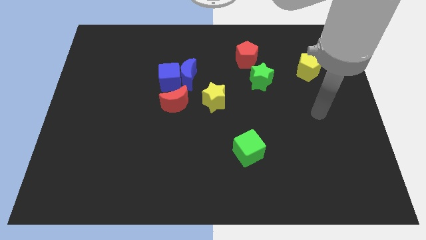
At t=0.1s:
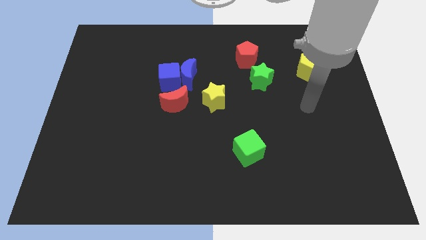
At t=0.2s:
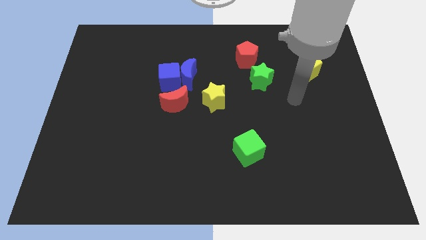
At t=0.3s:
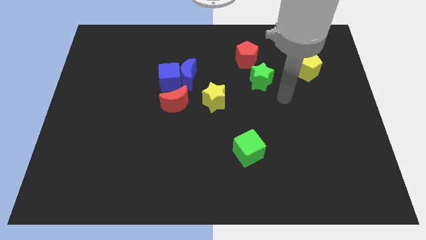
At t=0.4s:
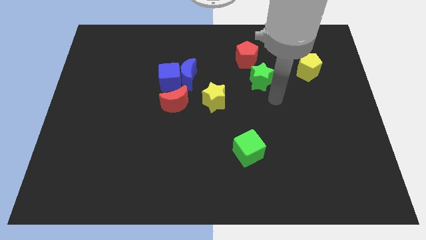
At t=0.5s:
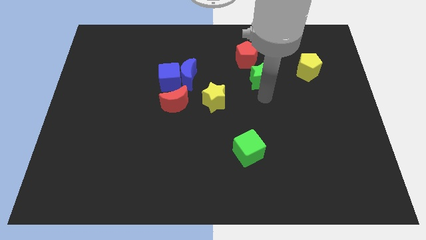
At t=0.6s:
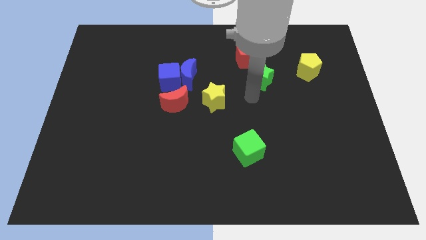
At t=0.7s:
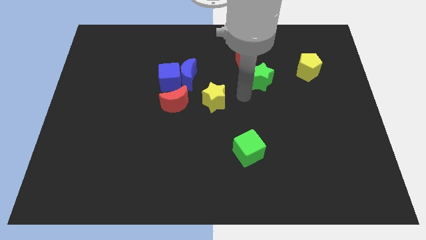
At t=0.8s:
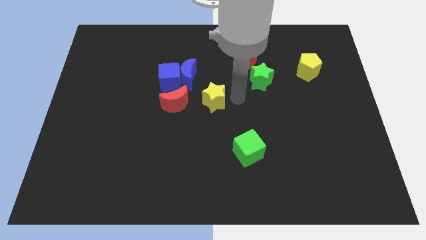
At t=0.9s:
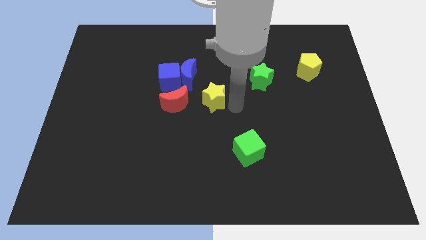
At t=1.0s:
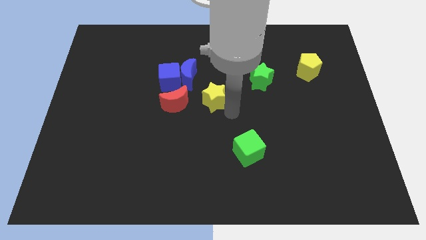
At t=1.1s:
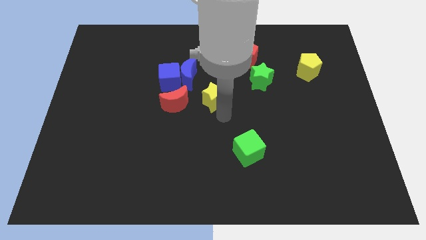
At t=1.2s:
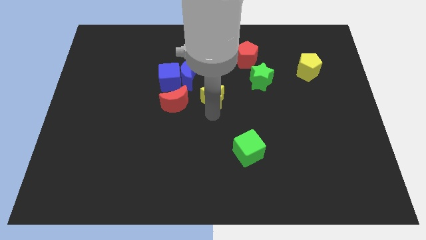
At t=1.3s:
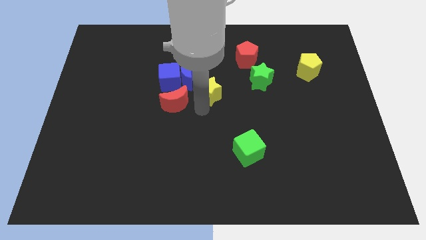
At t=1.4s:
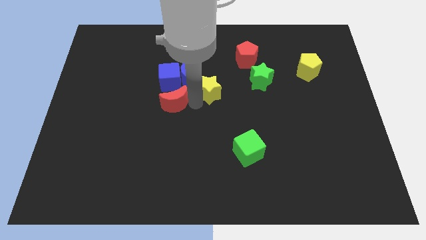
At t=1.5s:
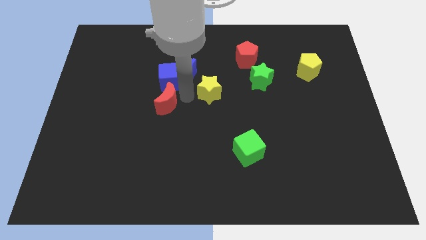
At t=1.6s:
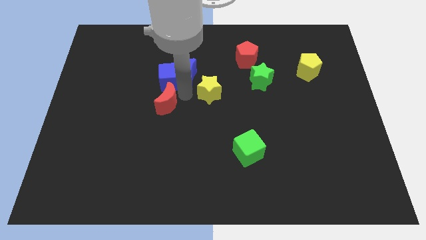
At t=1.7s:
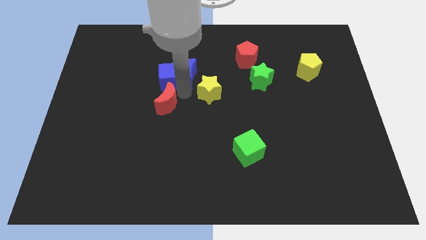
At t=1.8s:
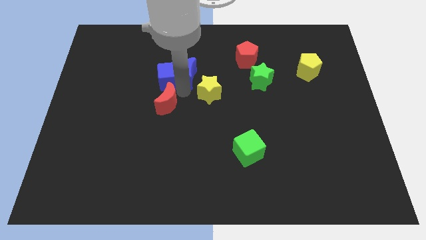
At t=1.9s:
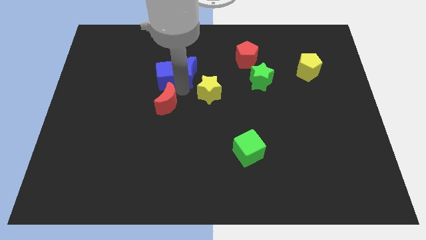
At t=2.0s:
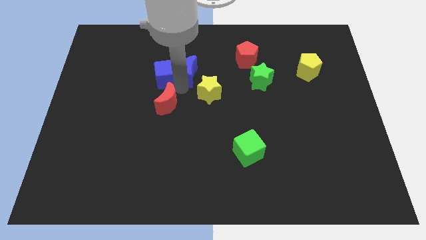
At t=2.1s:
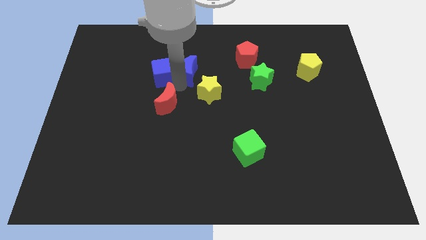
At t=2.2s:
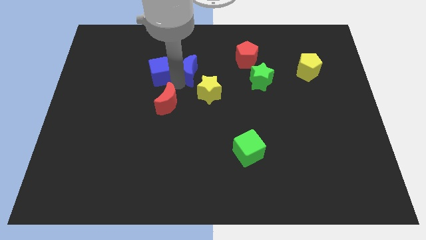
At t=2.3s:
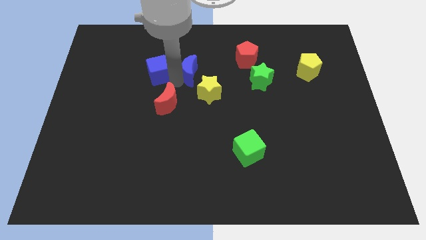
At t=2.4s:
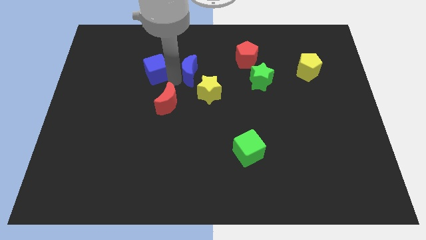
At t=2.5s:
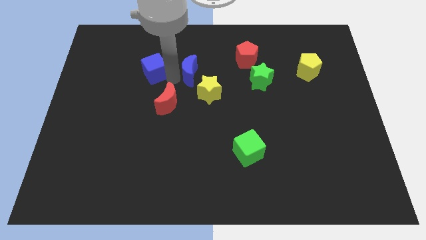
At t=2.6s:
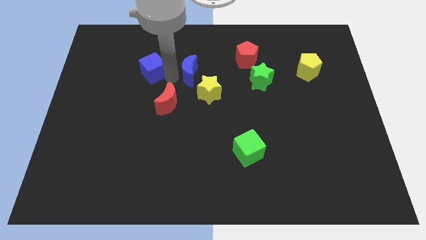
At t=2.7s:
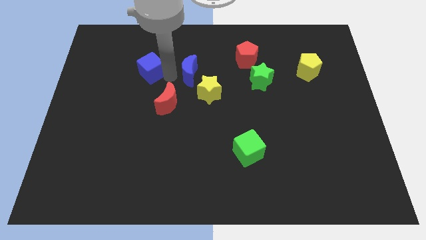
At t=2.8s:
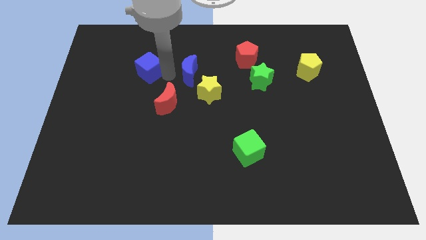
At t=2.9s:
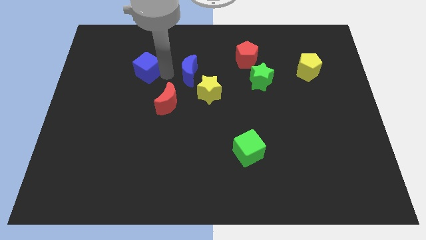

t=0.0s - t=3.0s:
pull the blue cube apart from the blue moon and red moon

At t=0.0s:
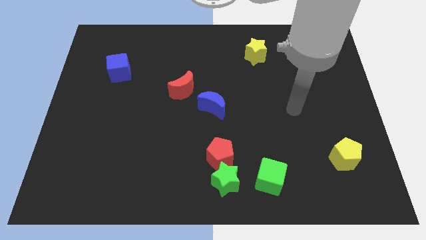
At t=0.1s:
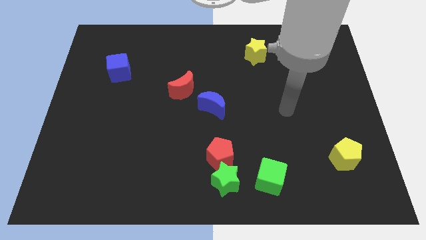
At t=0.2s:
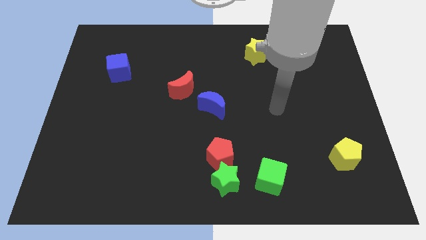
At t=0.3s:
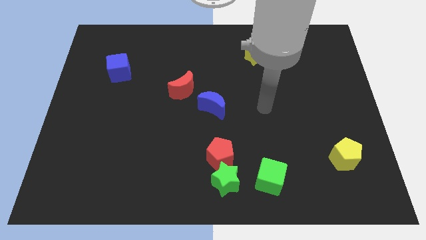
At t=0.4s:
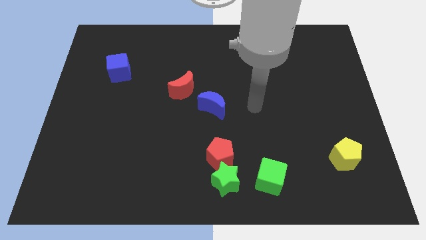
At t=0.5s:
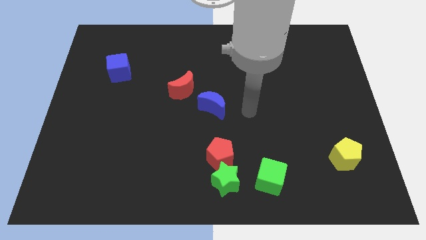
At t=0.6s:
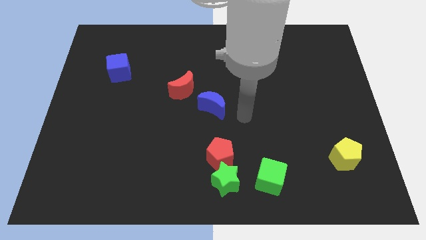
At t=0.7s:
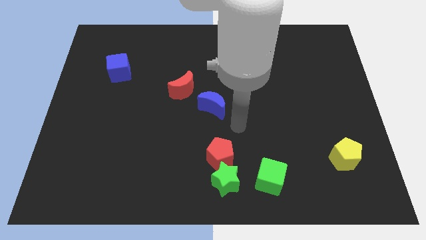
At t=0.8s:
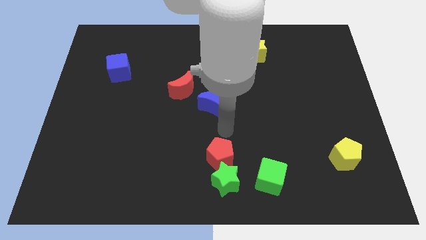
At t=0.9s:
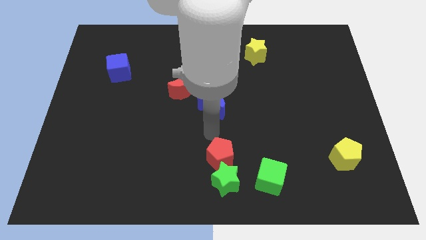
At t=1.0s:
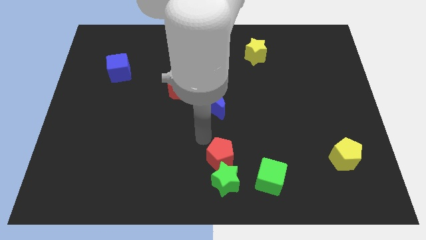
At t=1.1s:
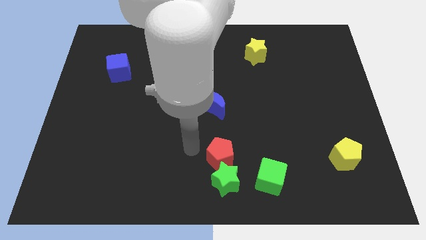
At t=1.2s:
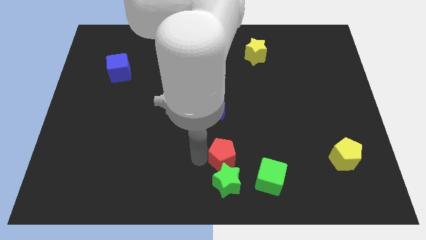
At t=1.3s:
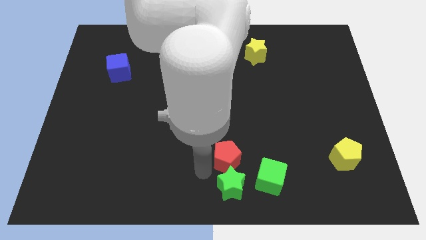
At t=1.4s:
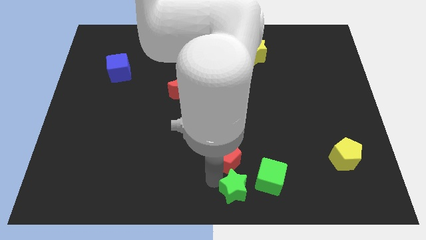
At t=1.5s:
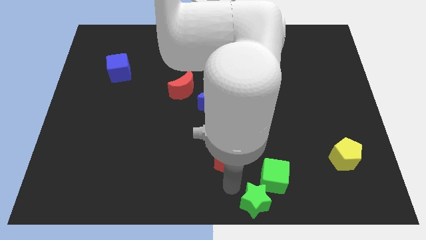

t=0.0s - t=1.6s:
pull the red pentagon apart from the green star

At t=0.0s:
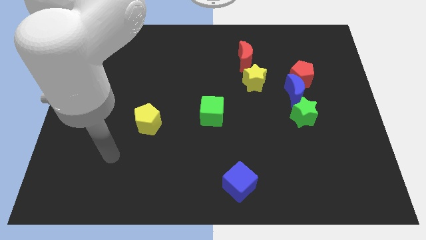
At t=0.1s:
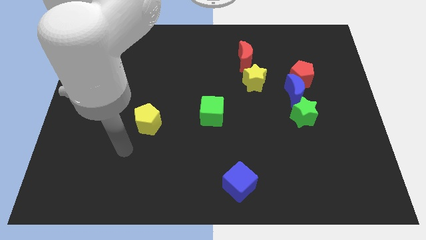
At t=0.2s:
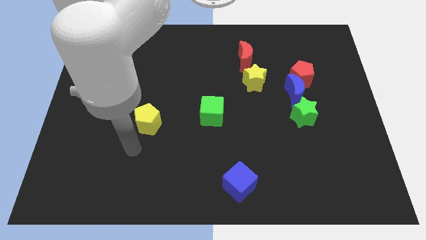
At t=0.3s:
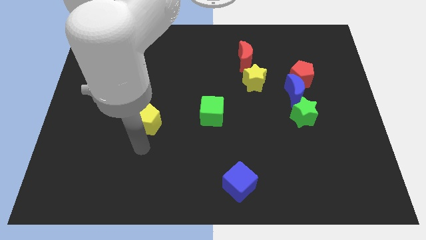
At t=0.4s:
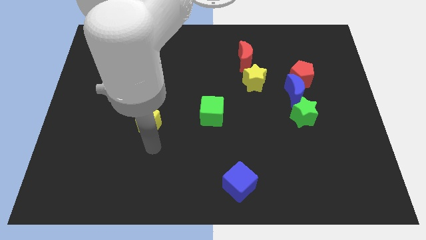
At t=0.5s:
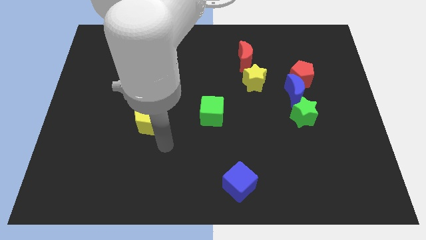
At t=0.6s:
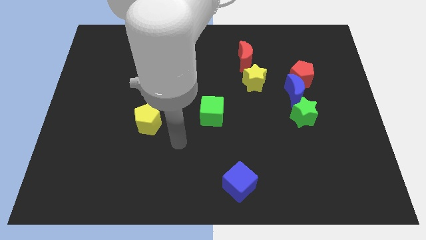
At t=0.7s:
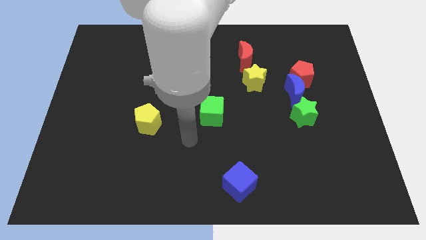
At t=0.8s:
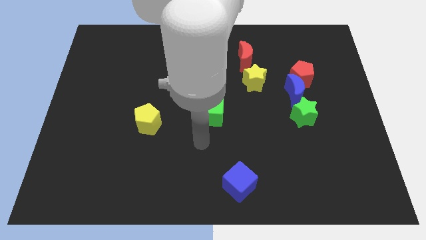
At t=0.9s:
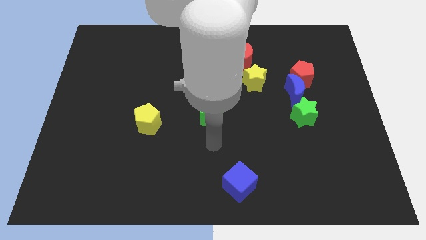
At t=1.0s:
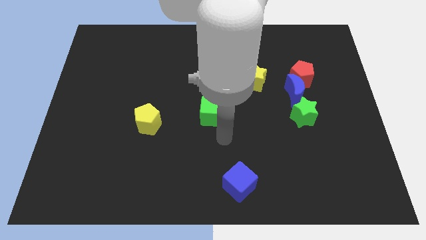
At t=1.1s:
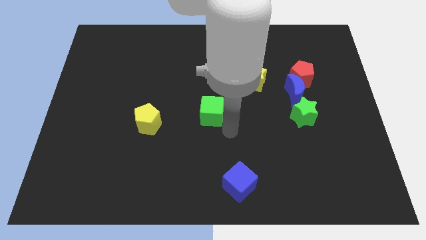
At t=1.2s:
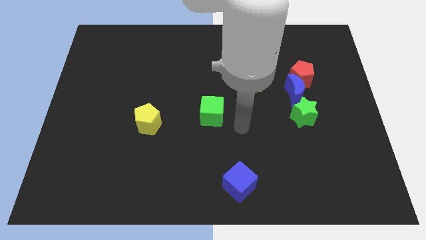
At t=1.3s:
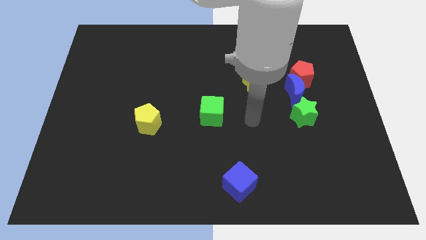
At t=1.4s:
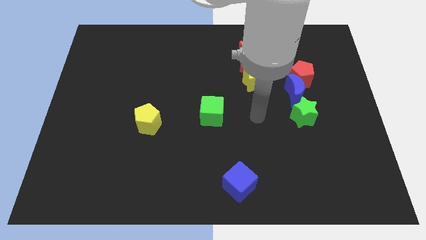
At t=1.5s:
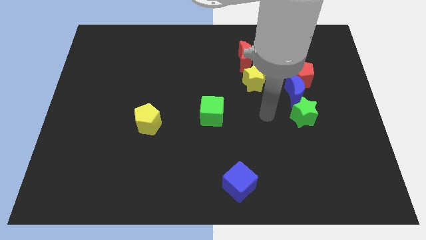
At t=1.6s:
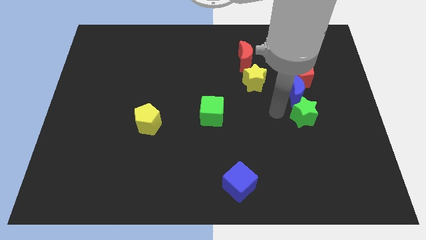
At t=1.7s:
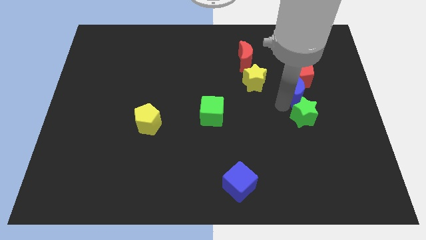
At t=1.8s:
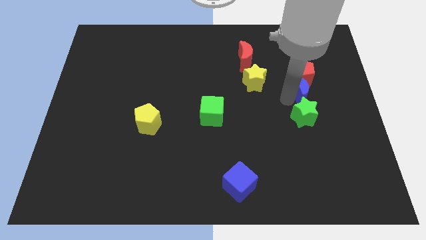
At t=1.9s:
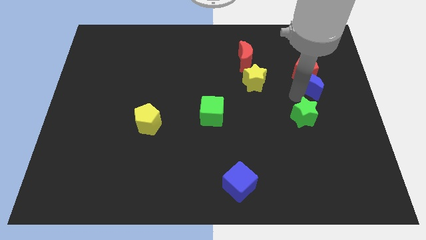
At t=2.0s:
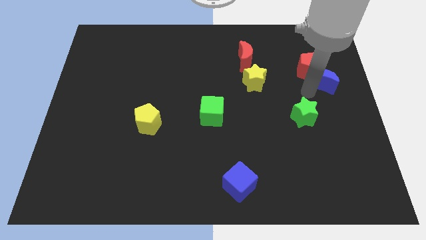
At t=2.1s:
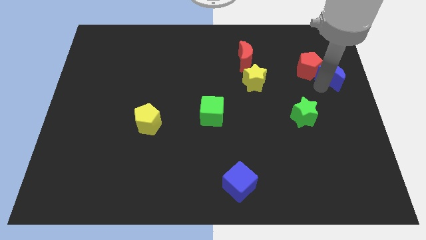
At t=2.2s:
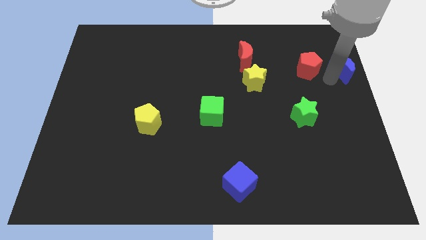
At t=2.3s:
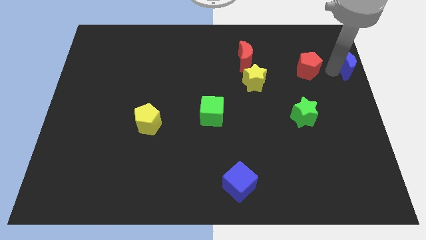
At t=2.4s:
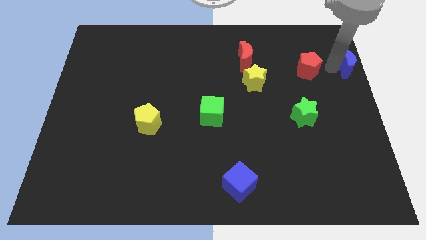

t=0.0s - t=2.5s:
move the red pentagon away from the blue moon

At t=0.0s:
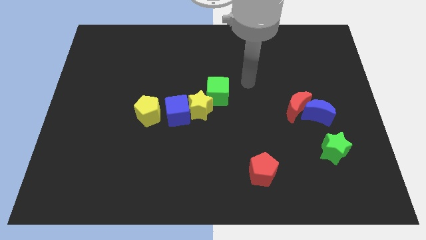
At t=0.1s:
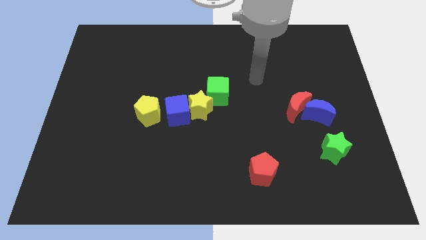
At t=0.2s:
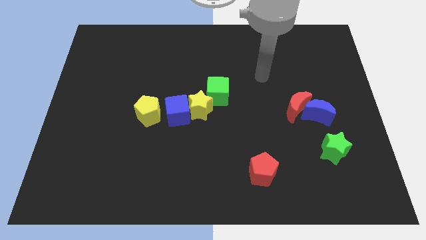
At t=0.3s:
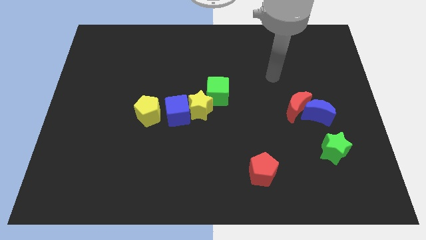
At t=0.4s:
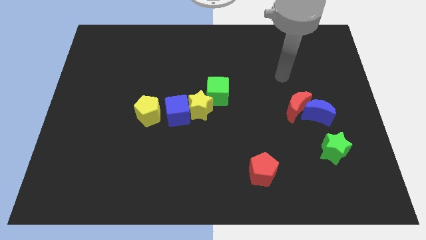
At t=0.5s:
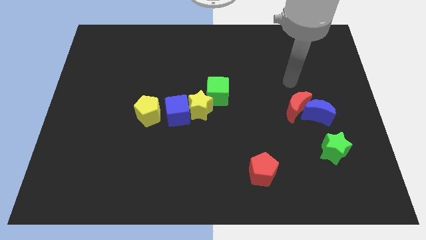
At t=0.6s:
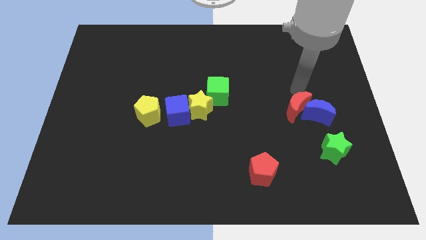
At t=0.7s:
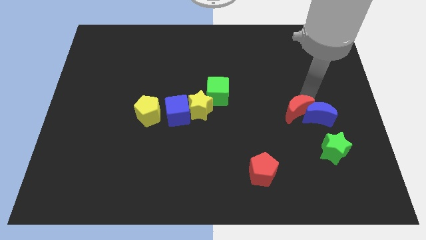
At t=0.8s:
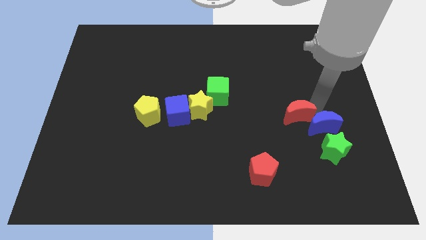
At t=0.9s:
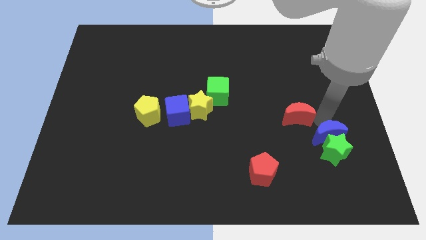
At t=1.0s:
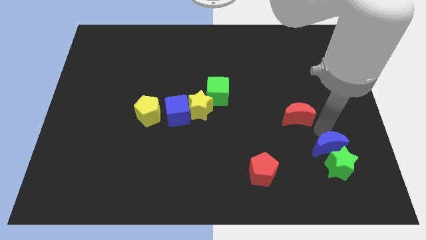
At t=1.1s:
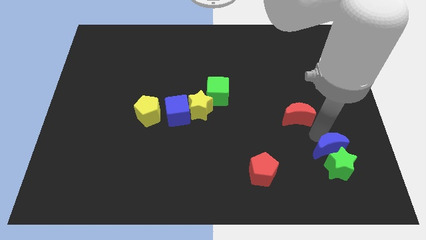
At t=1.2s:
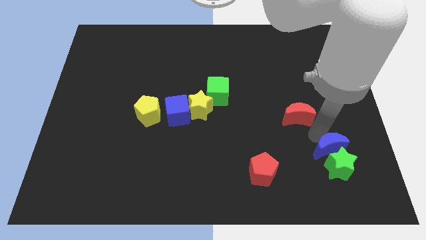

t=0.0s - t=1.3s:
separate the red moon from the blue moon

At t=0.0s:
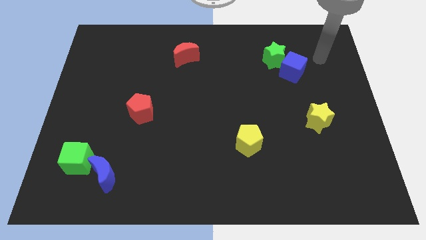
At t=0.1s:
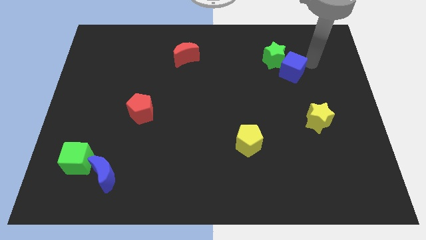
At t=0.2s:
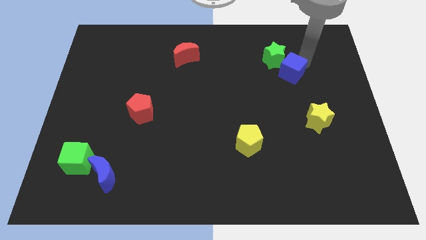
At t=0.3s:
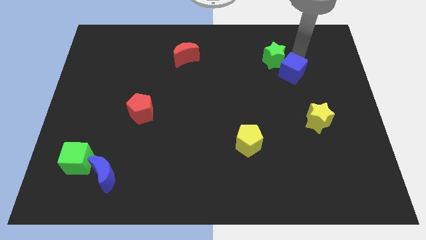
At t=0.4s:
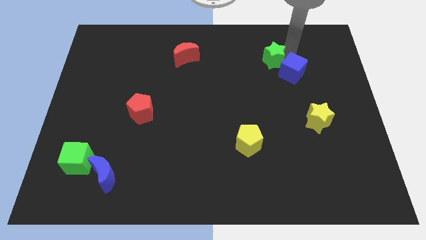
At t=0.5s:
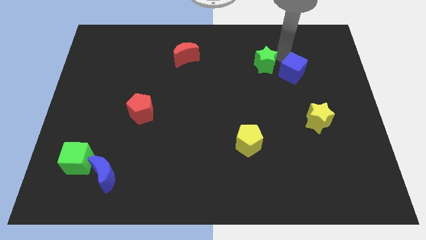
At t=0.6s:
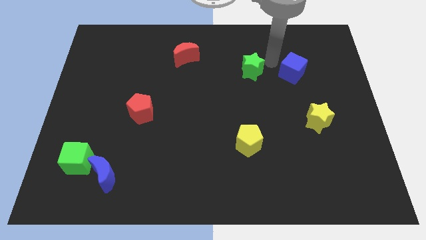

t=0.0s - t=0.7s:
separate the blue cube from the green star

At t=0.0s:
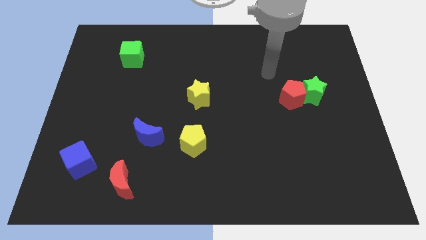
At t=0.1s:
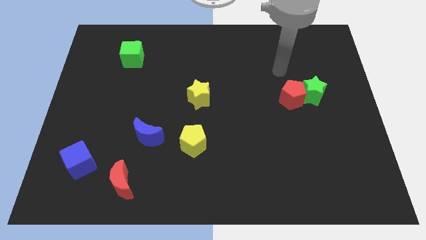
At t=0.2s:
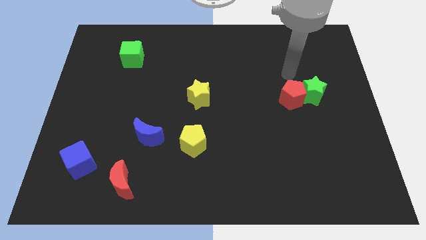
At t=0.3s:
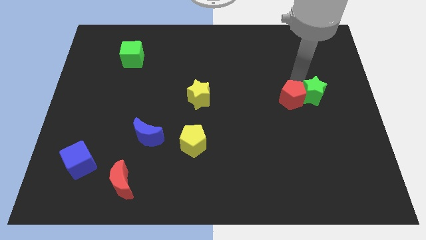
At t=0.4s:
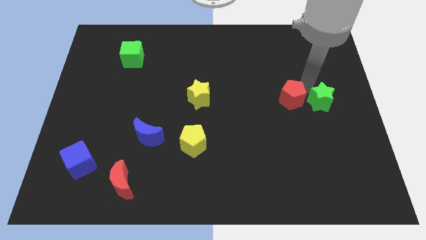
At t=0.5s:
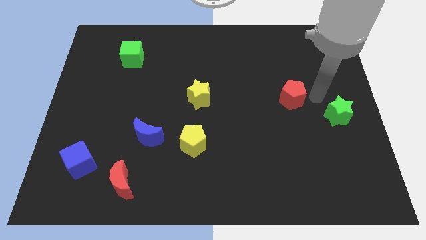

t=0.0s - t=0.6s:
move the red pentagon away from the green star
